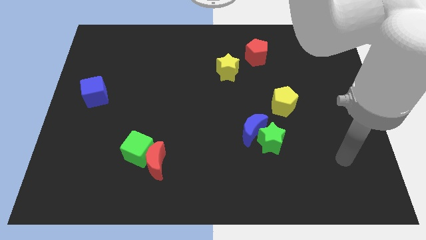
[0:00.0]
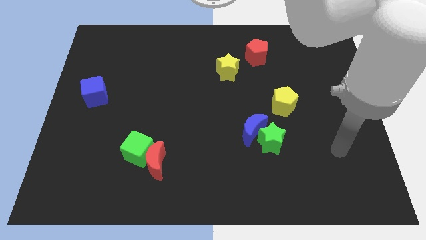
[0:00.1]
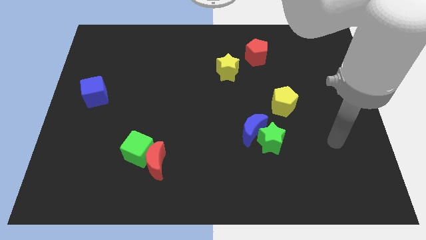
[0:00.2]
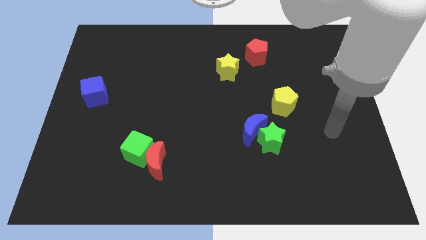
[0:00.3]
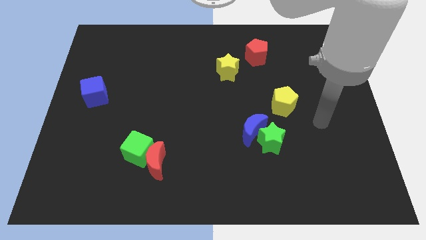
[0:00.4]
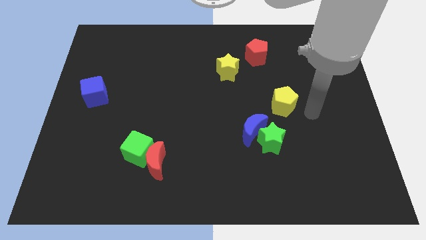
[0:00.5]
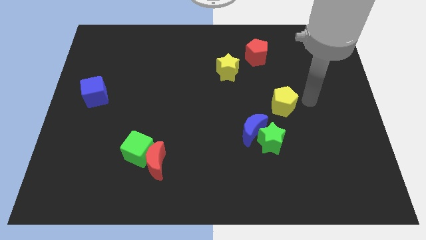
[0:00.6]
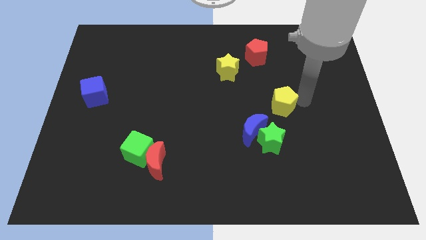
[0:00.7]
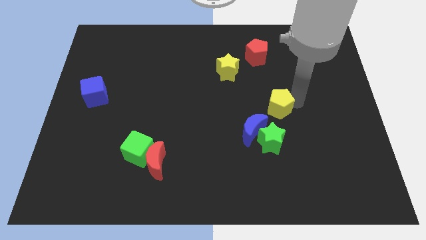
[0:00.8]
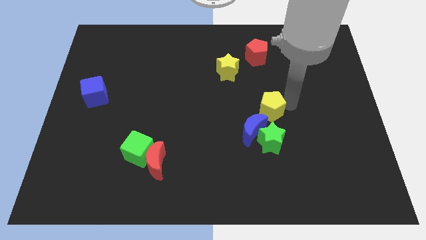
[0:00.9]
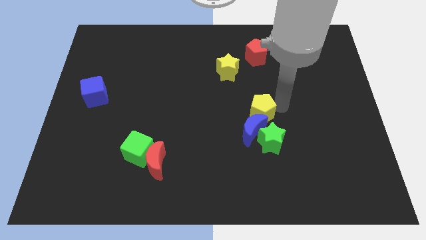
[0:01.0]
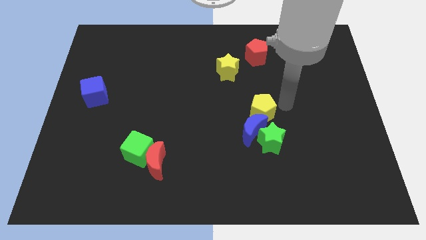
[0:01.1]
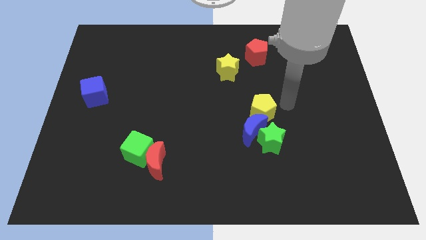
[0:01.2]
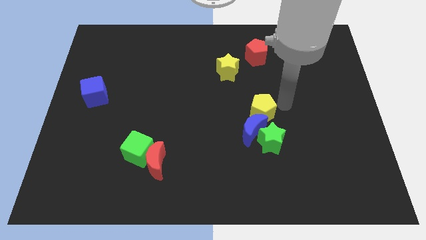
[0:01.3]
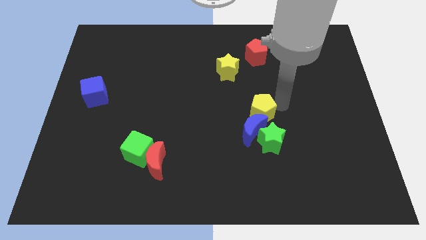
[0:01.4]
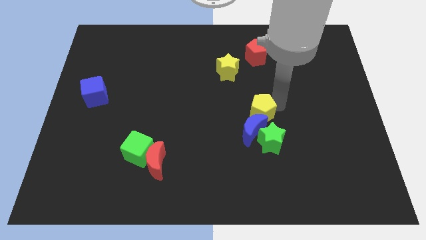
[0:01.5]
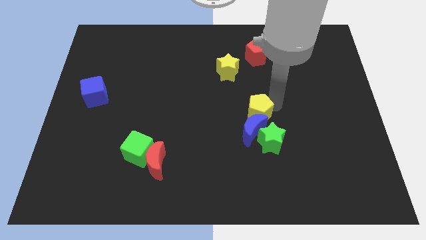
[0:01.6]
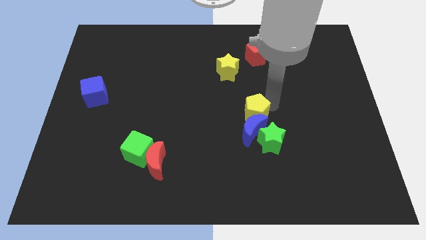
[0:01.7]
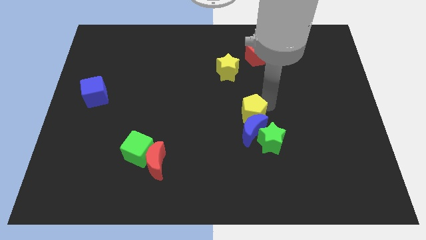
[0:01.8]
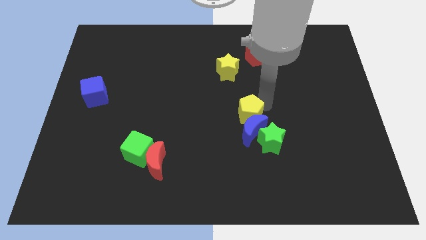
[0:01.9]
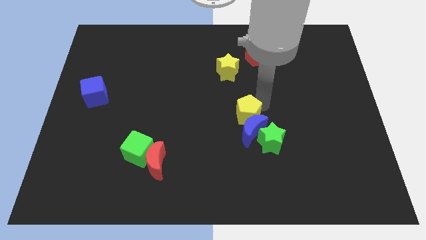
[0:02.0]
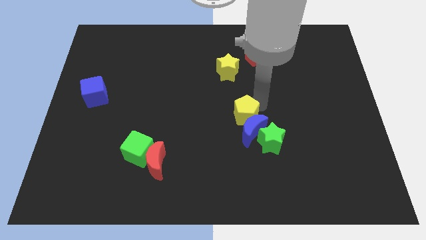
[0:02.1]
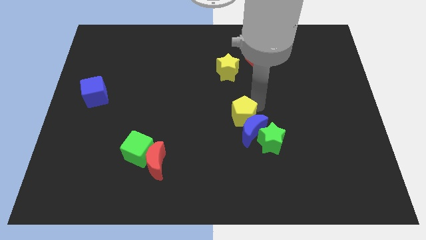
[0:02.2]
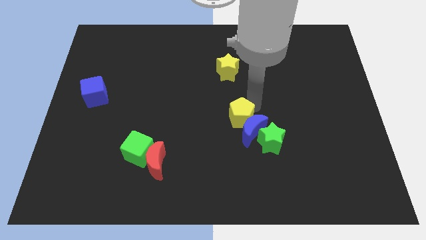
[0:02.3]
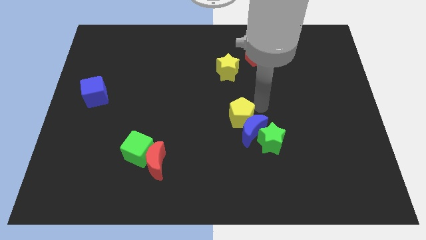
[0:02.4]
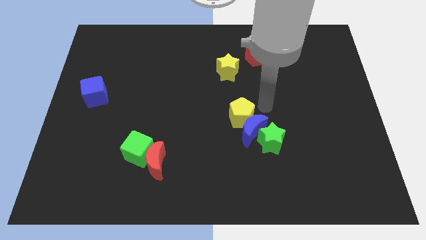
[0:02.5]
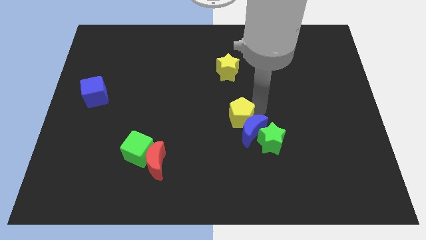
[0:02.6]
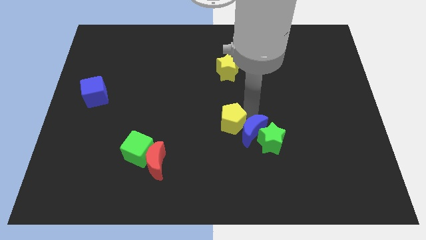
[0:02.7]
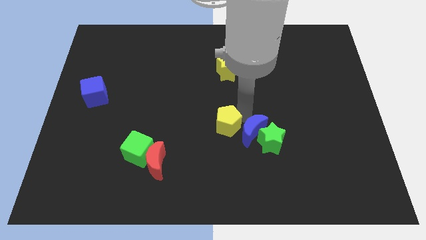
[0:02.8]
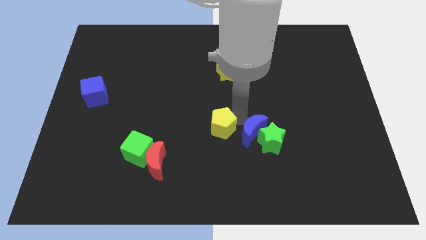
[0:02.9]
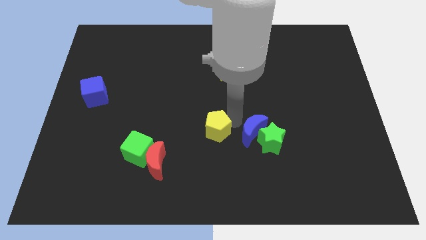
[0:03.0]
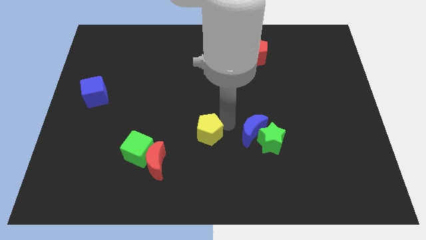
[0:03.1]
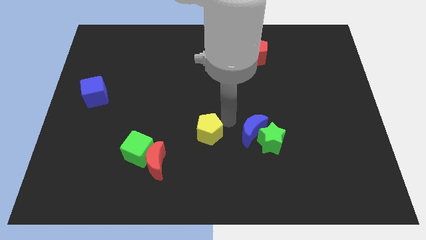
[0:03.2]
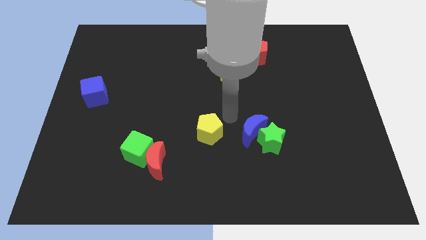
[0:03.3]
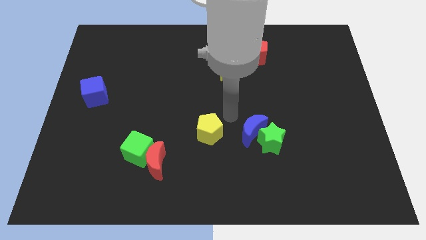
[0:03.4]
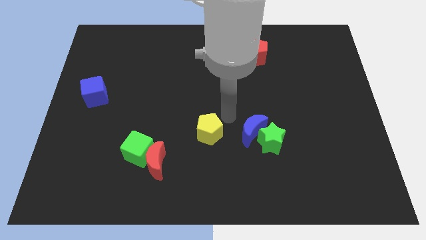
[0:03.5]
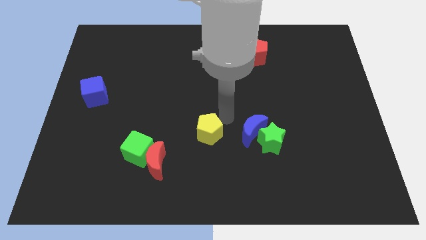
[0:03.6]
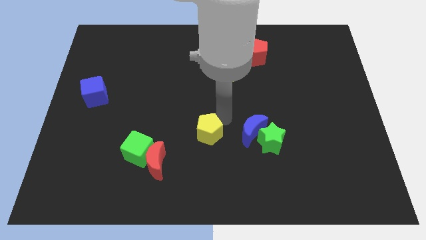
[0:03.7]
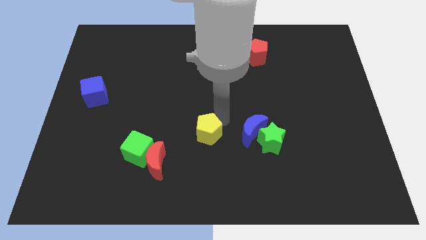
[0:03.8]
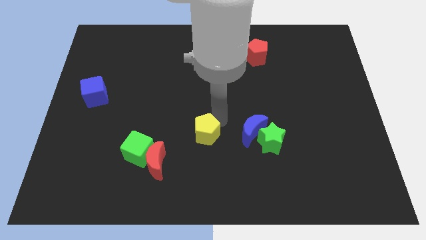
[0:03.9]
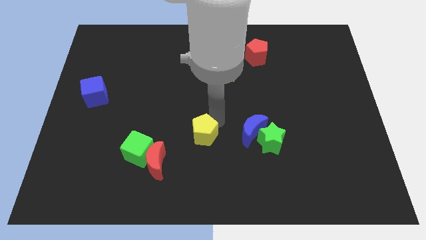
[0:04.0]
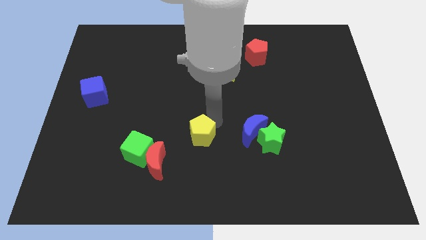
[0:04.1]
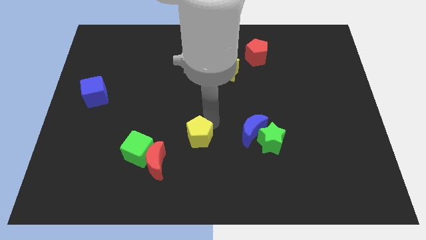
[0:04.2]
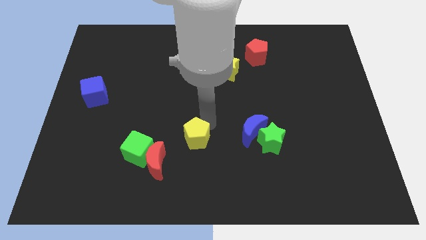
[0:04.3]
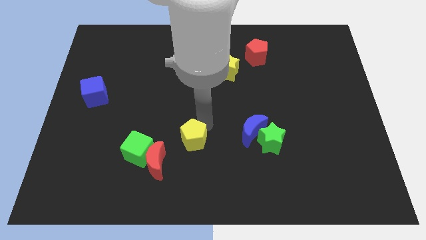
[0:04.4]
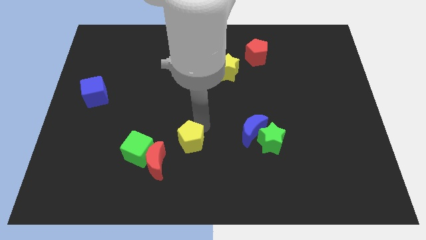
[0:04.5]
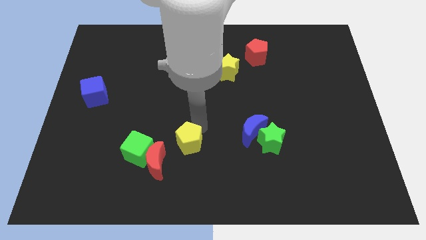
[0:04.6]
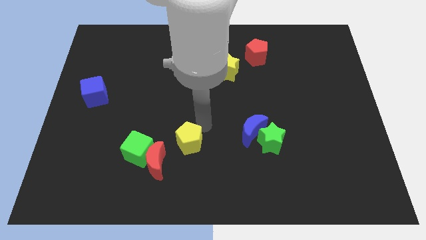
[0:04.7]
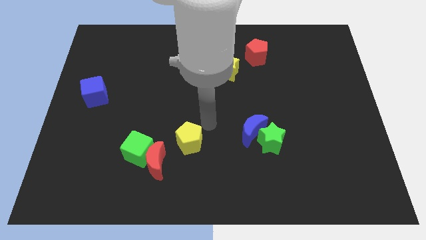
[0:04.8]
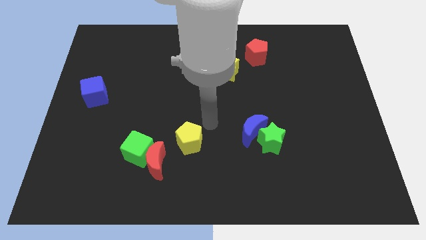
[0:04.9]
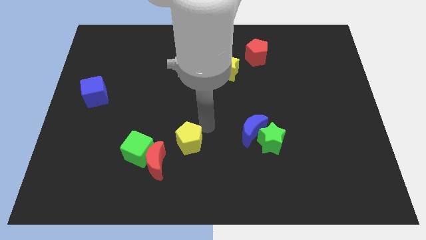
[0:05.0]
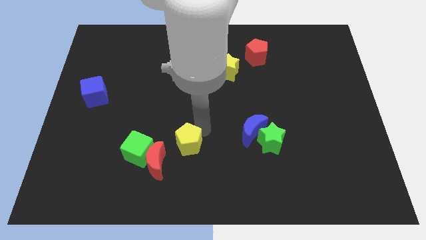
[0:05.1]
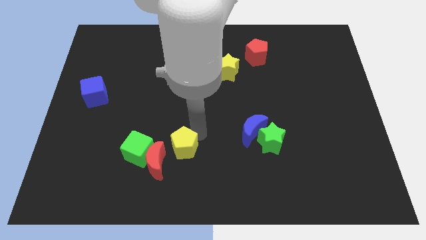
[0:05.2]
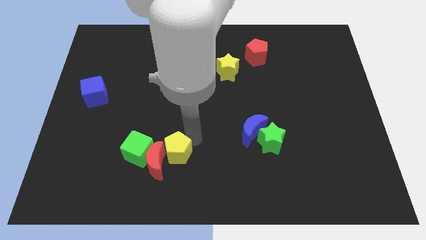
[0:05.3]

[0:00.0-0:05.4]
slide the yellow pentagon to the red moon

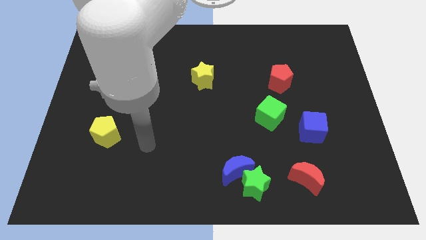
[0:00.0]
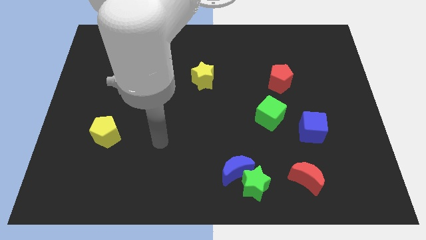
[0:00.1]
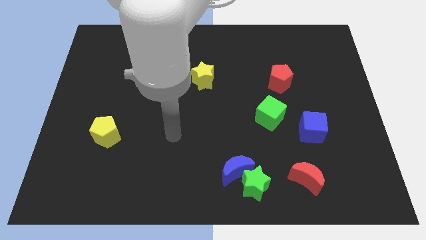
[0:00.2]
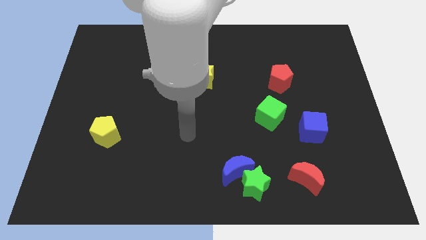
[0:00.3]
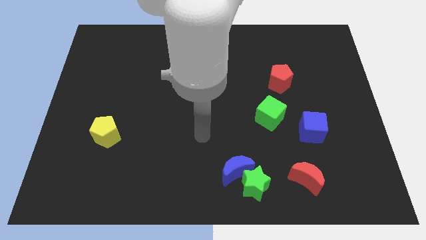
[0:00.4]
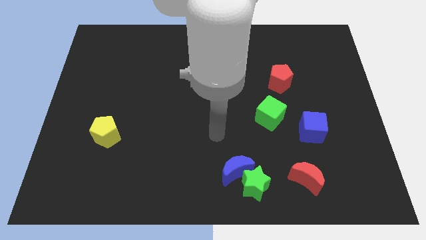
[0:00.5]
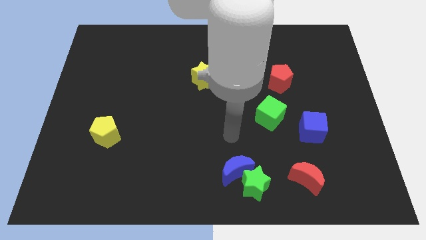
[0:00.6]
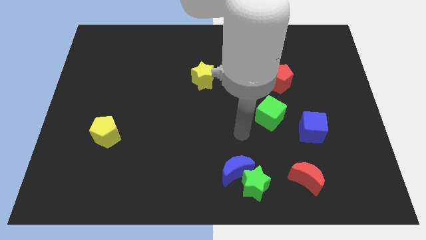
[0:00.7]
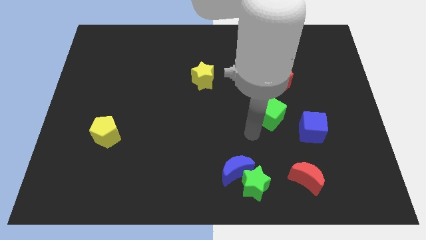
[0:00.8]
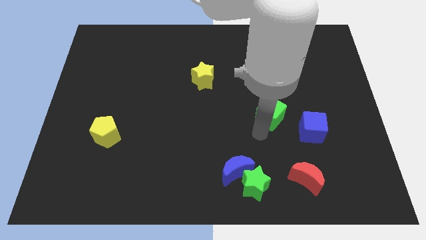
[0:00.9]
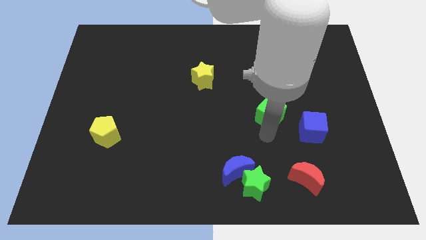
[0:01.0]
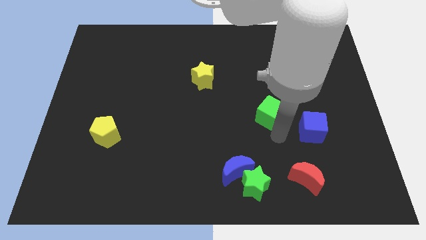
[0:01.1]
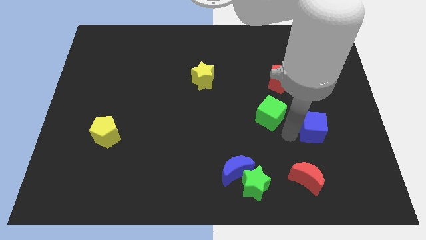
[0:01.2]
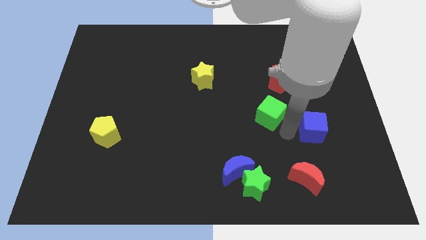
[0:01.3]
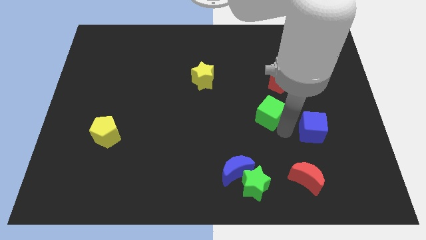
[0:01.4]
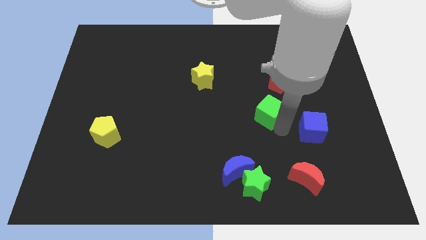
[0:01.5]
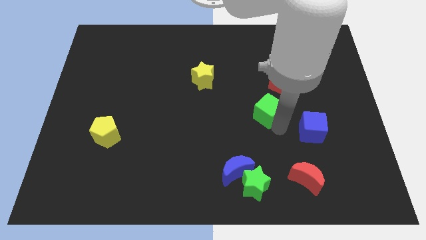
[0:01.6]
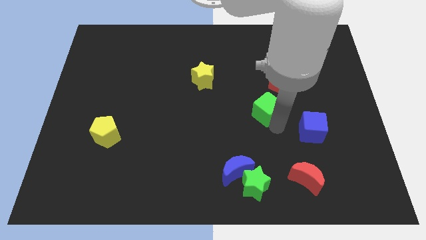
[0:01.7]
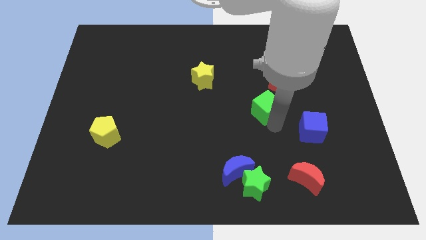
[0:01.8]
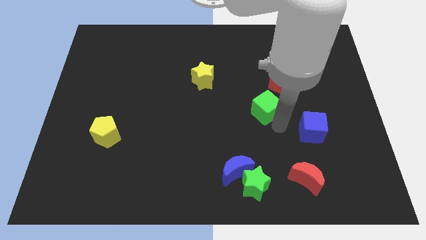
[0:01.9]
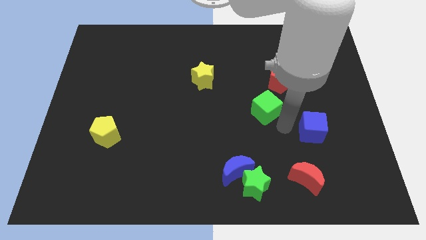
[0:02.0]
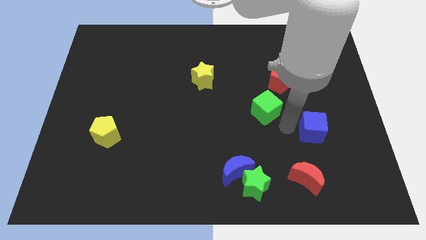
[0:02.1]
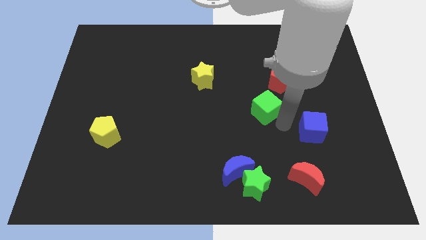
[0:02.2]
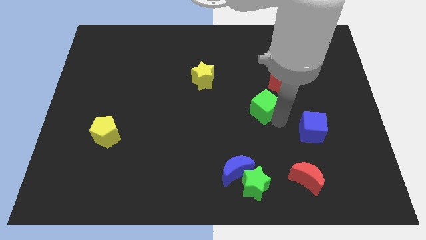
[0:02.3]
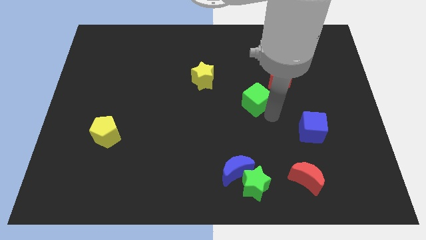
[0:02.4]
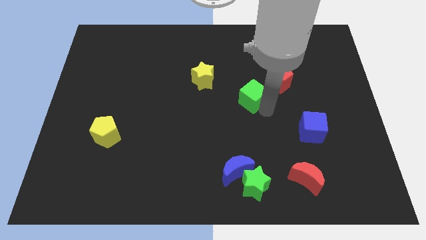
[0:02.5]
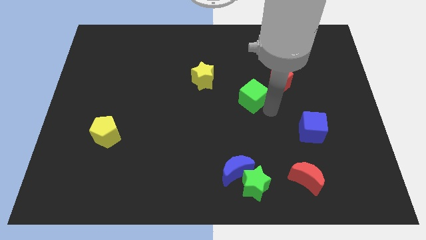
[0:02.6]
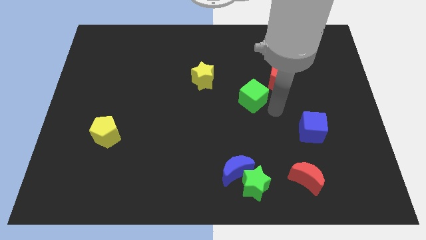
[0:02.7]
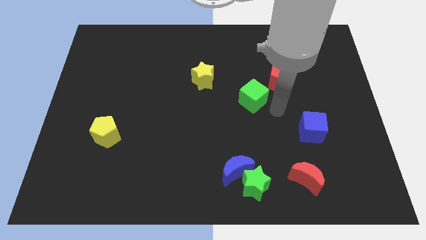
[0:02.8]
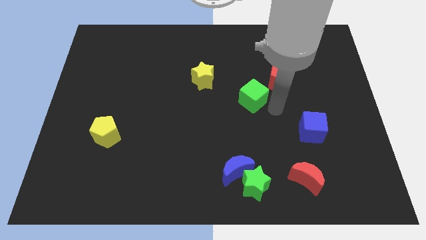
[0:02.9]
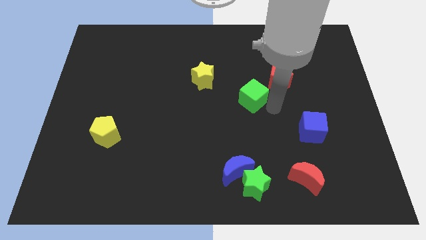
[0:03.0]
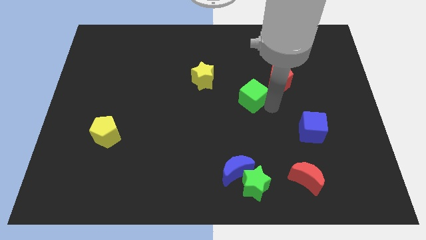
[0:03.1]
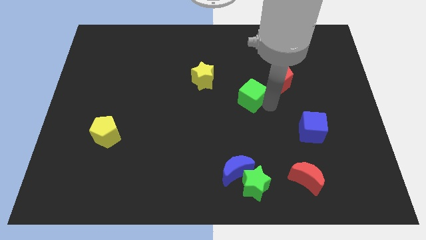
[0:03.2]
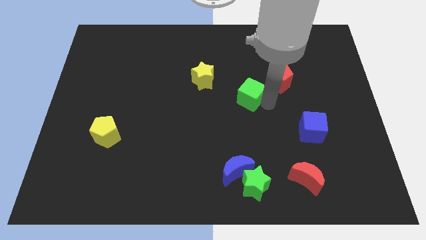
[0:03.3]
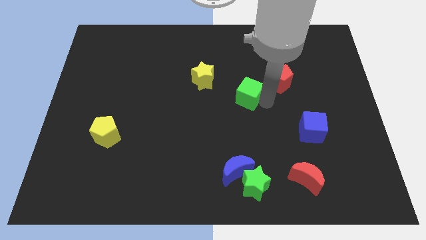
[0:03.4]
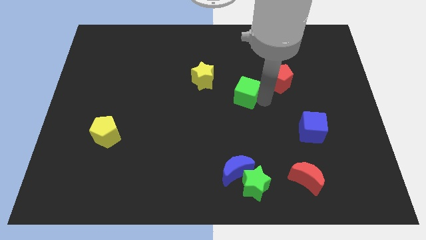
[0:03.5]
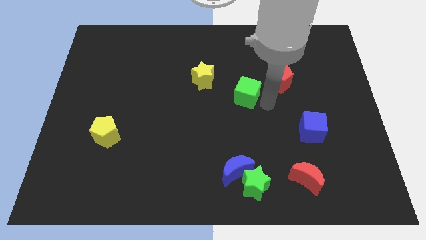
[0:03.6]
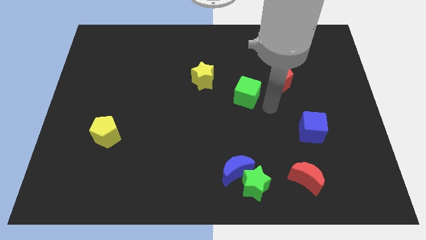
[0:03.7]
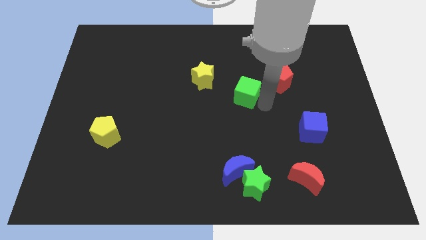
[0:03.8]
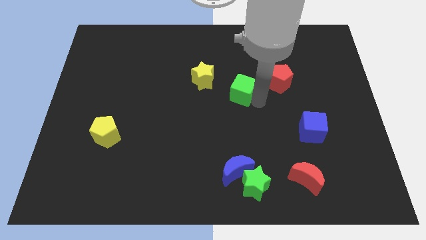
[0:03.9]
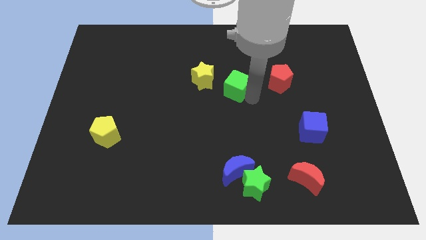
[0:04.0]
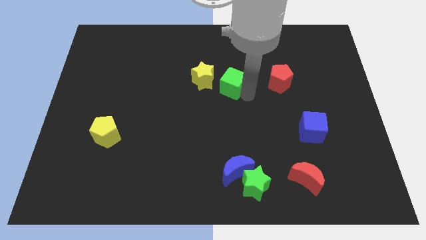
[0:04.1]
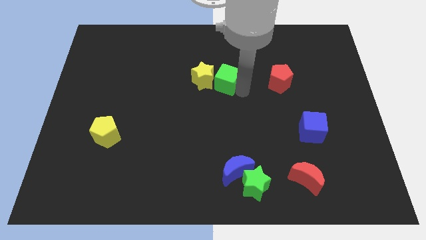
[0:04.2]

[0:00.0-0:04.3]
push the green cube close to the yellow star
